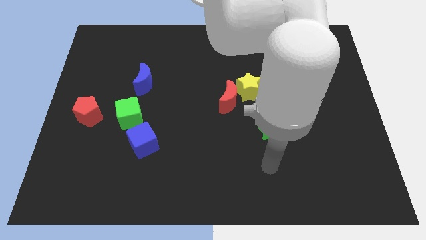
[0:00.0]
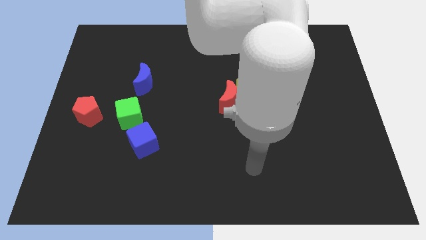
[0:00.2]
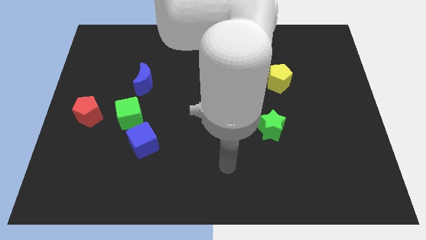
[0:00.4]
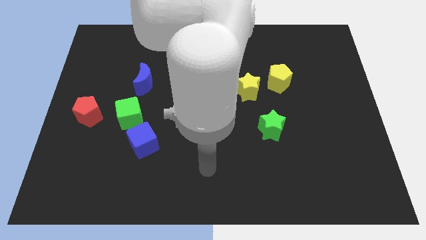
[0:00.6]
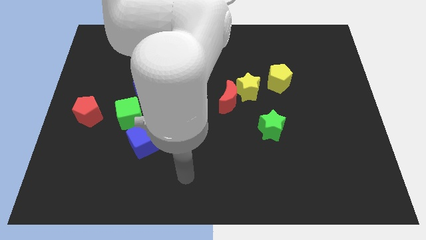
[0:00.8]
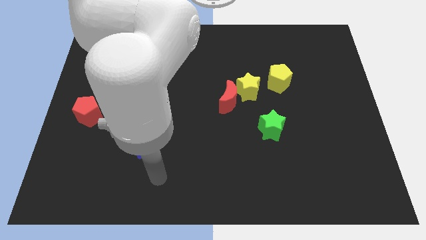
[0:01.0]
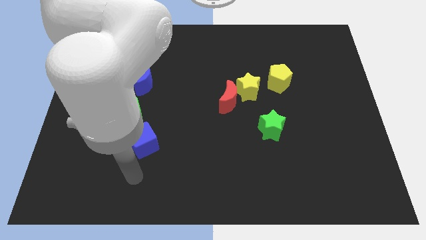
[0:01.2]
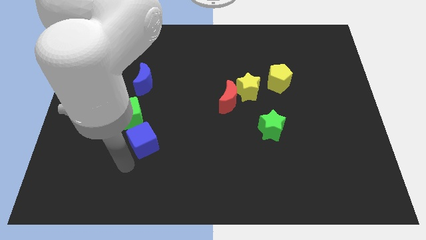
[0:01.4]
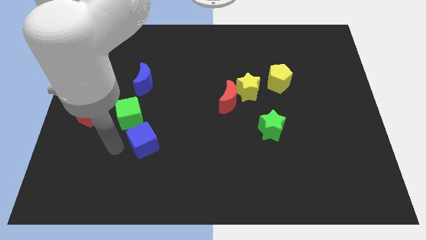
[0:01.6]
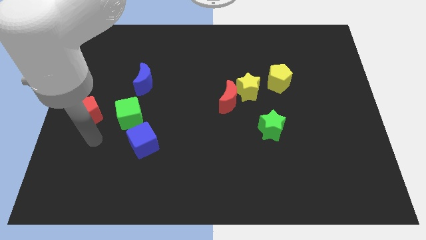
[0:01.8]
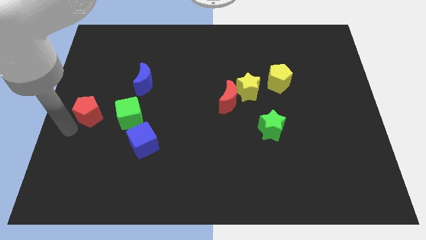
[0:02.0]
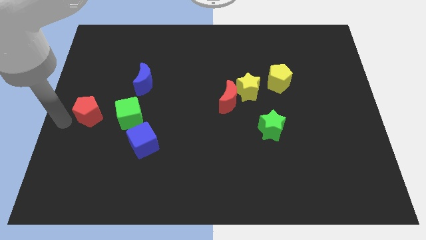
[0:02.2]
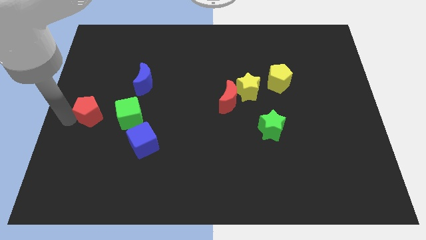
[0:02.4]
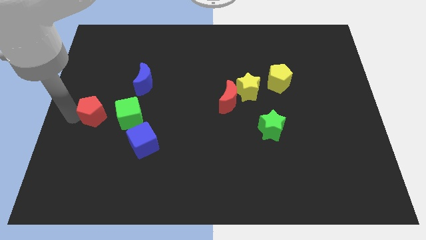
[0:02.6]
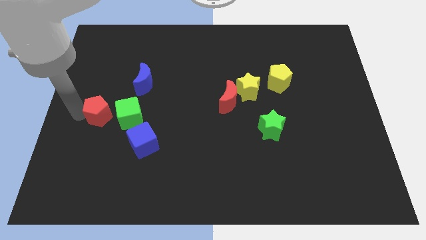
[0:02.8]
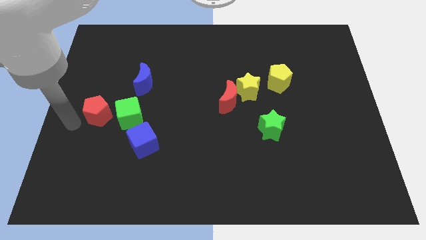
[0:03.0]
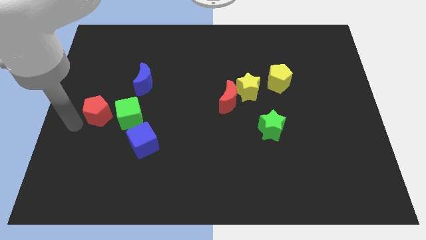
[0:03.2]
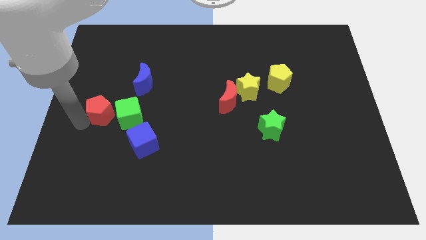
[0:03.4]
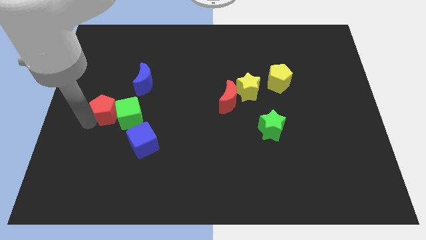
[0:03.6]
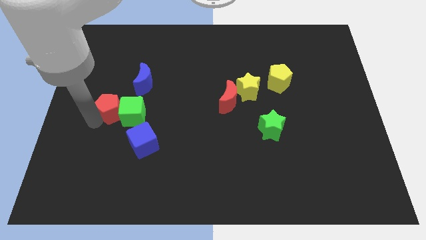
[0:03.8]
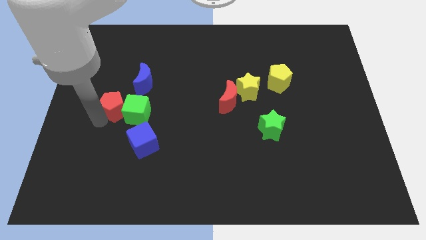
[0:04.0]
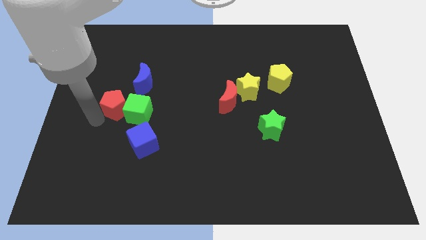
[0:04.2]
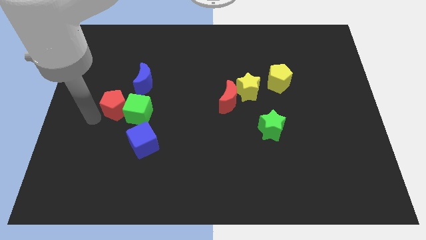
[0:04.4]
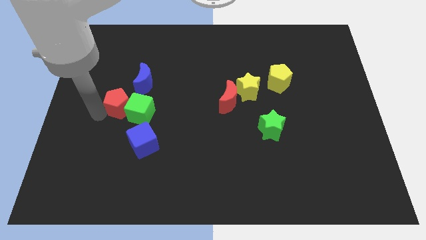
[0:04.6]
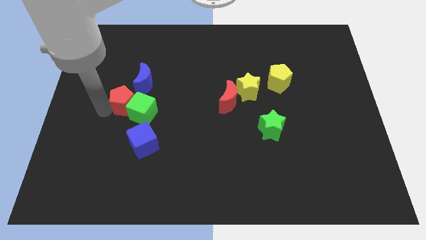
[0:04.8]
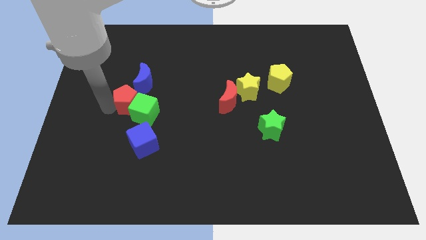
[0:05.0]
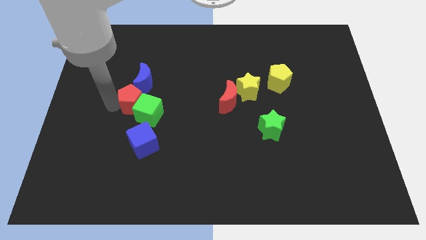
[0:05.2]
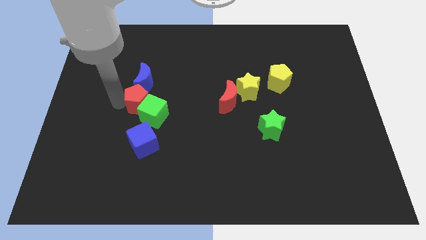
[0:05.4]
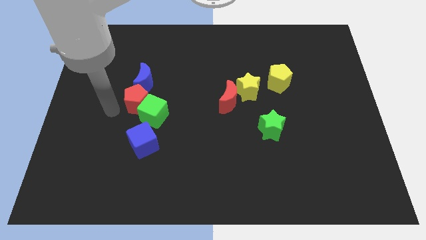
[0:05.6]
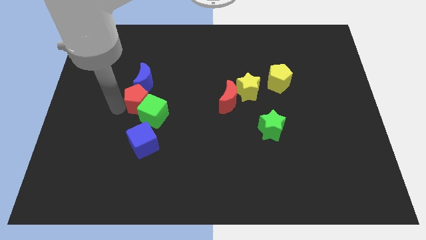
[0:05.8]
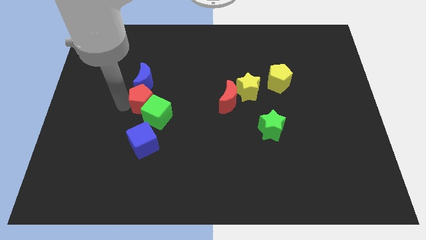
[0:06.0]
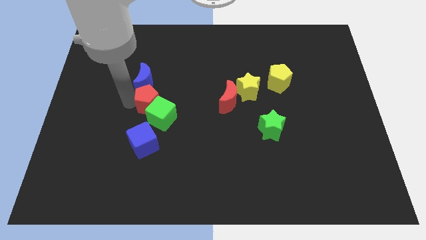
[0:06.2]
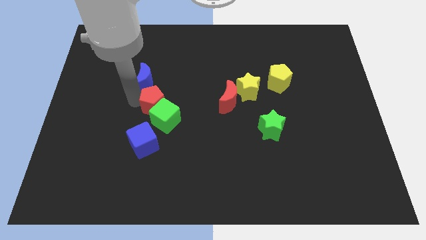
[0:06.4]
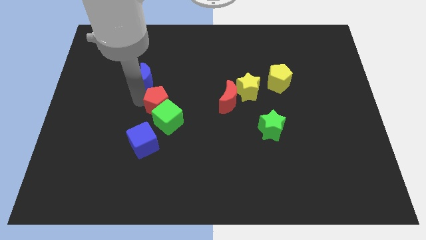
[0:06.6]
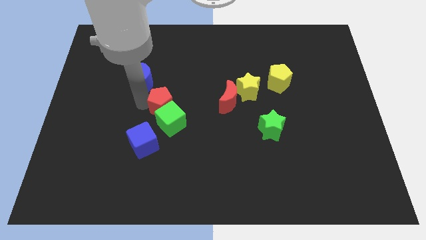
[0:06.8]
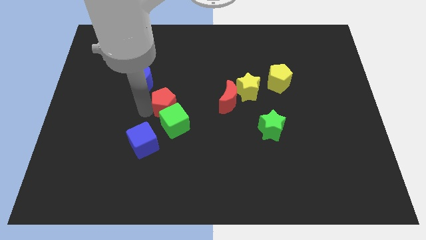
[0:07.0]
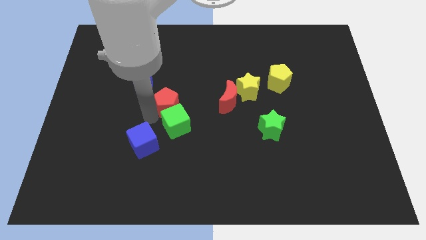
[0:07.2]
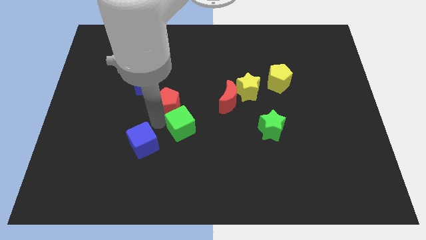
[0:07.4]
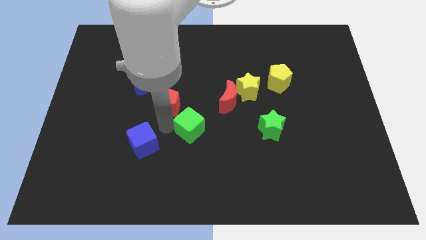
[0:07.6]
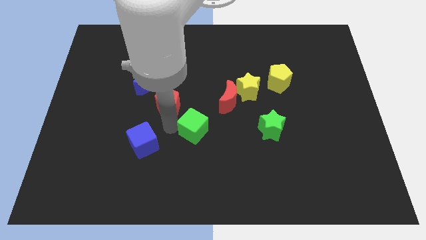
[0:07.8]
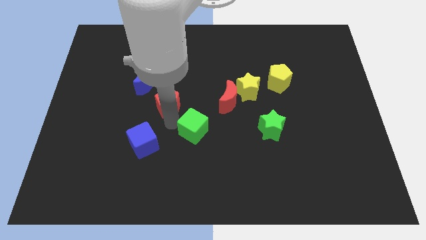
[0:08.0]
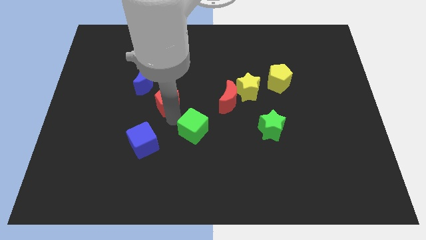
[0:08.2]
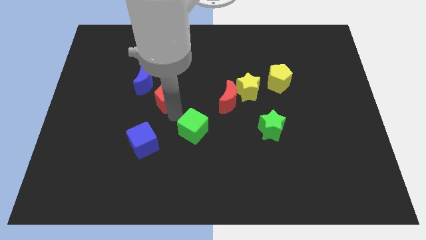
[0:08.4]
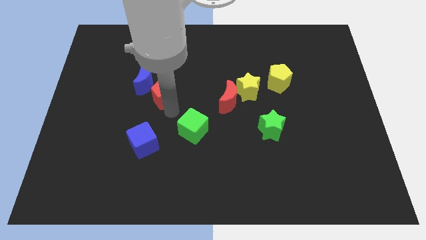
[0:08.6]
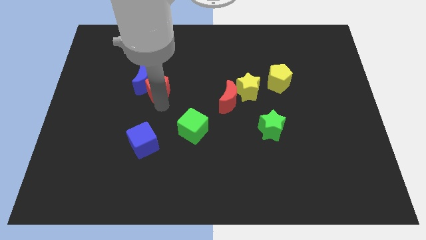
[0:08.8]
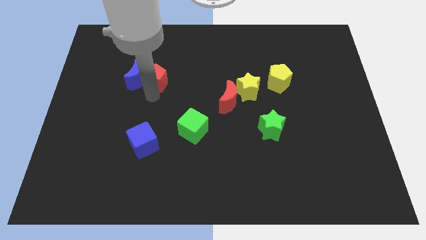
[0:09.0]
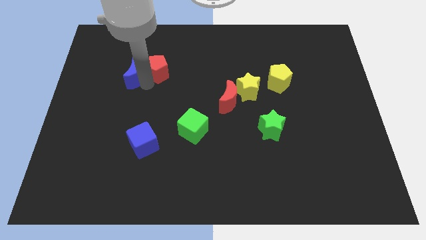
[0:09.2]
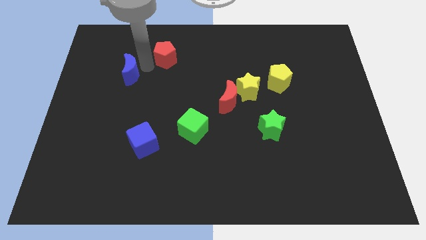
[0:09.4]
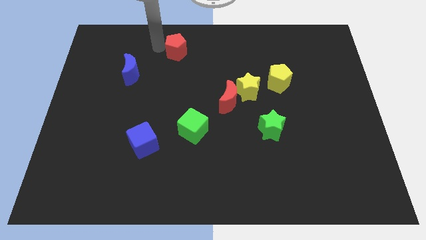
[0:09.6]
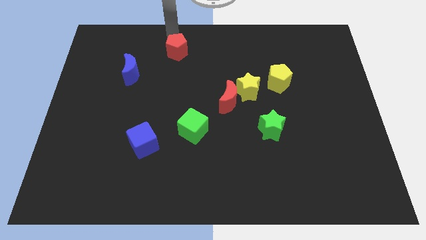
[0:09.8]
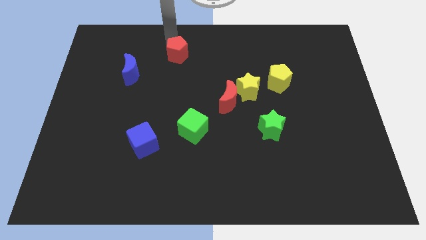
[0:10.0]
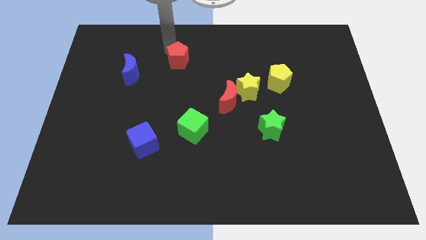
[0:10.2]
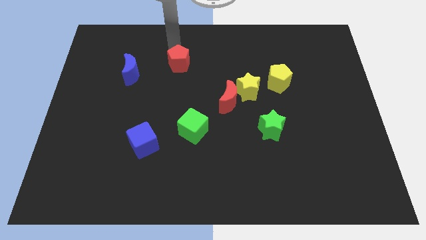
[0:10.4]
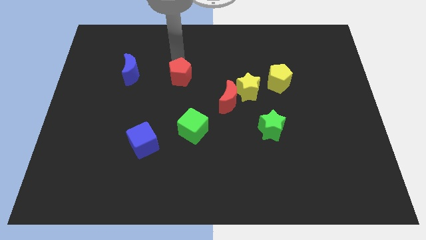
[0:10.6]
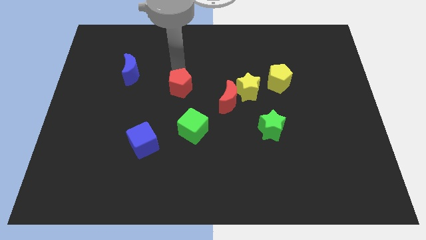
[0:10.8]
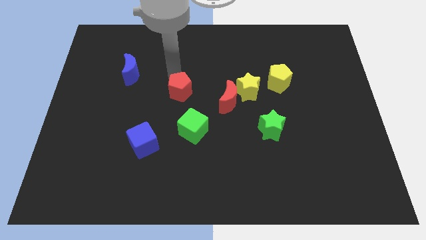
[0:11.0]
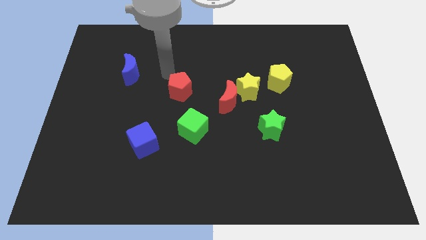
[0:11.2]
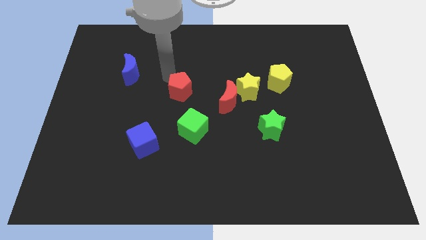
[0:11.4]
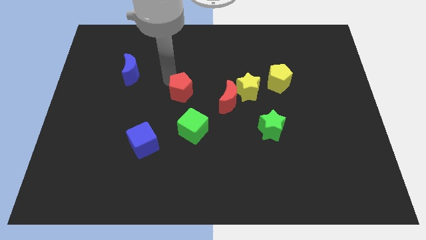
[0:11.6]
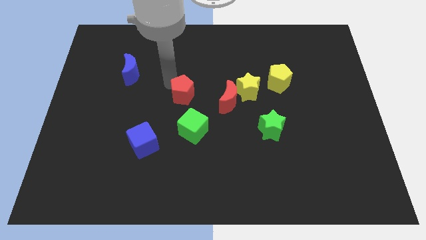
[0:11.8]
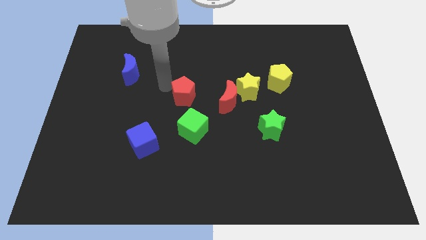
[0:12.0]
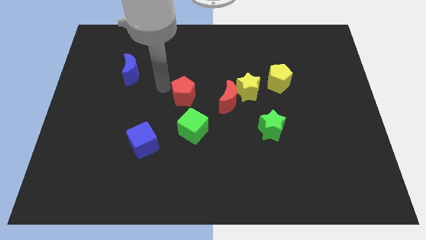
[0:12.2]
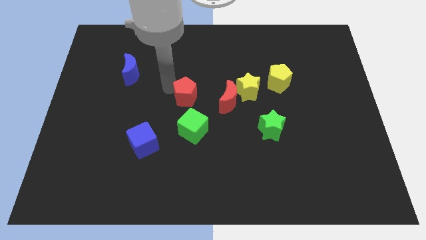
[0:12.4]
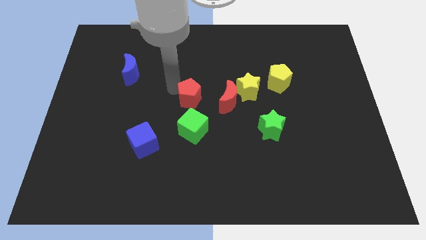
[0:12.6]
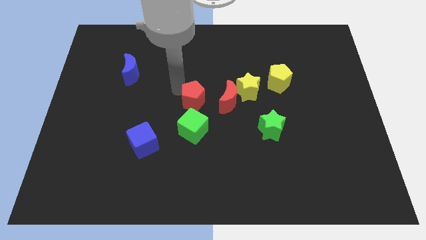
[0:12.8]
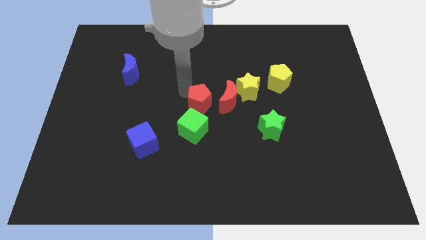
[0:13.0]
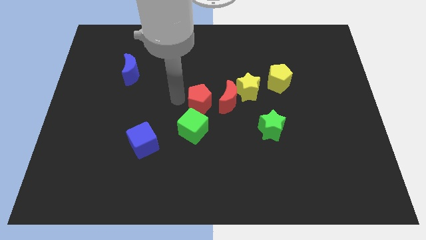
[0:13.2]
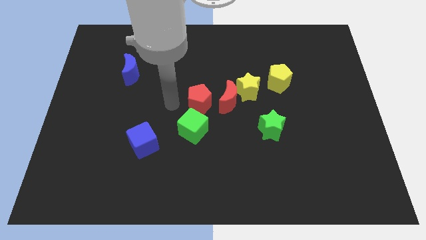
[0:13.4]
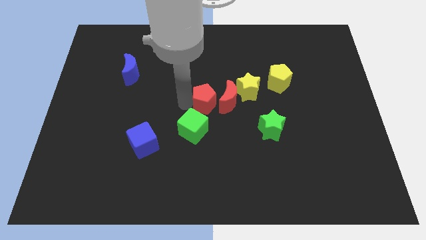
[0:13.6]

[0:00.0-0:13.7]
push the red pentagon to the red moon
